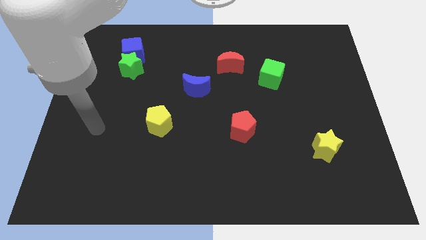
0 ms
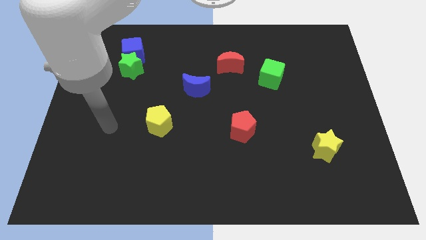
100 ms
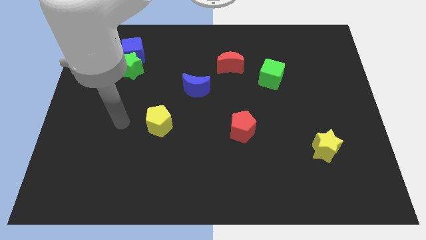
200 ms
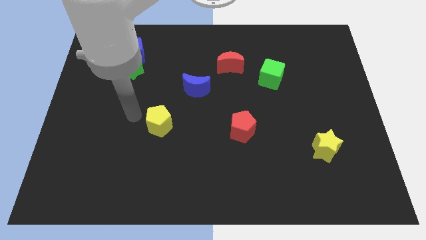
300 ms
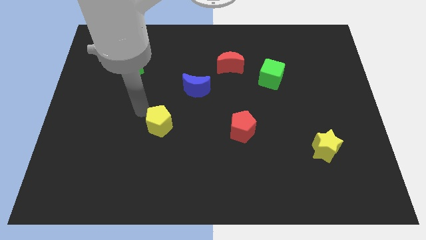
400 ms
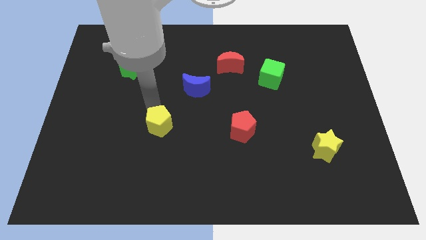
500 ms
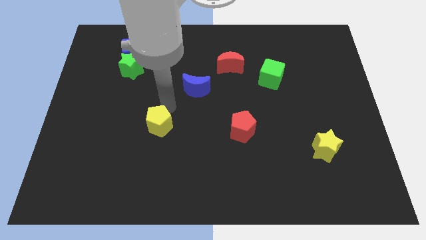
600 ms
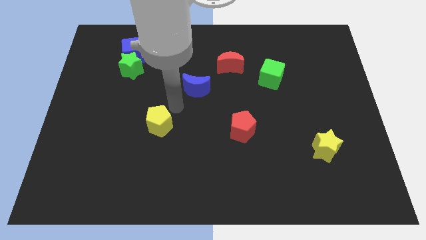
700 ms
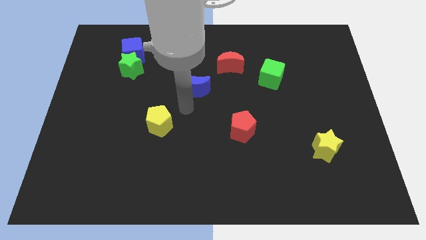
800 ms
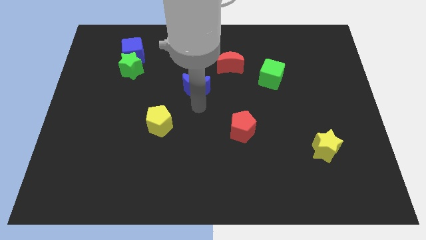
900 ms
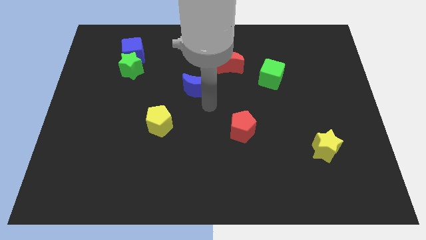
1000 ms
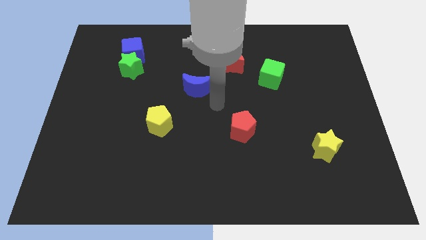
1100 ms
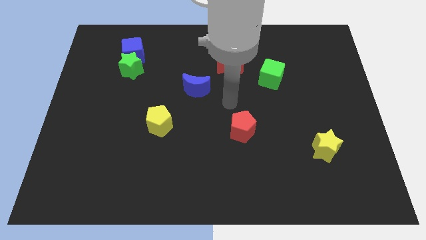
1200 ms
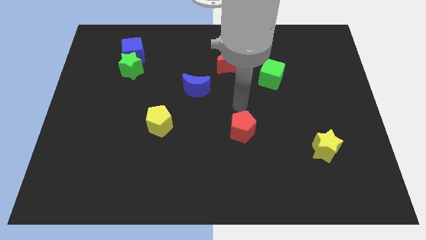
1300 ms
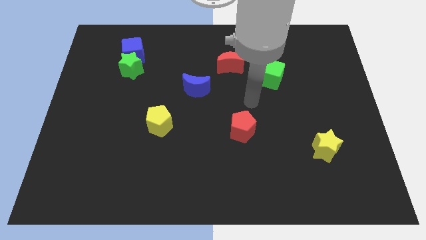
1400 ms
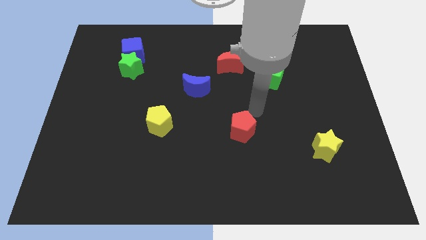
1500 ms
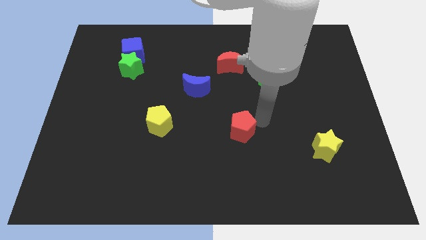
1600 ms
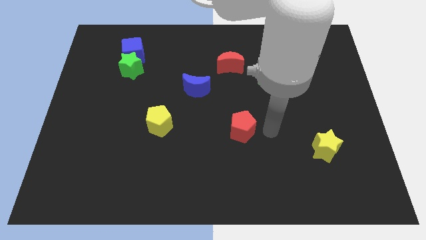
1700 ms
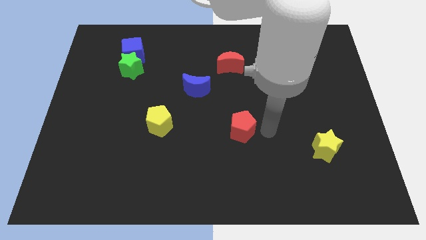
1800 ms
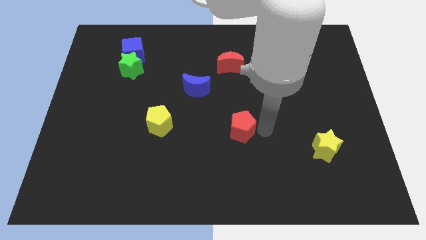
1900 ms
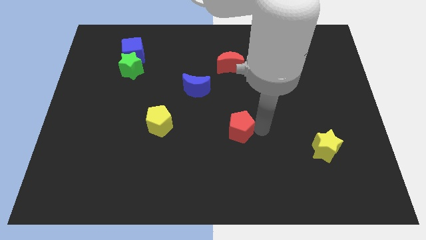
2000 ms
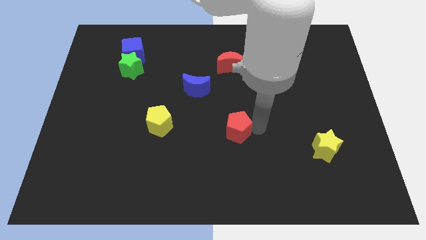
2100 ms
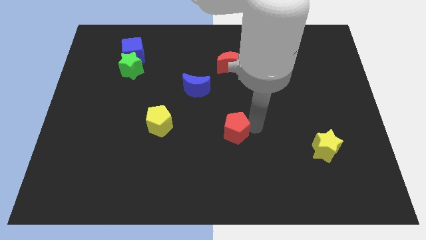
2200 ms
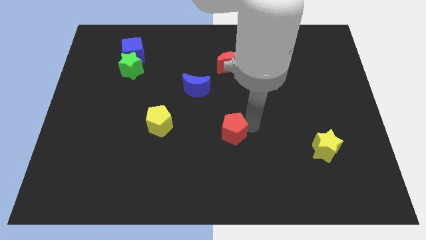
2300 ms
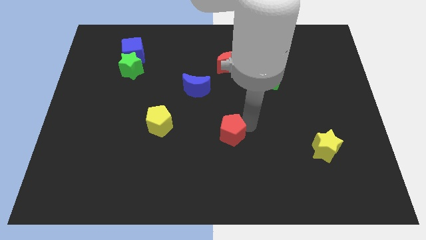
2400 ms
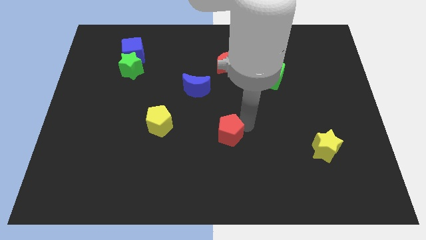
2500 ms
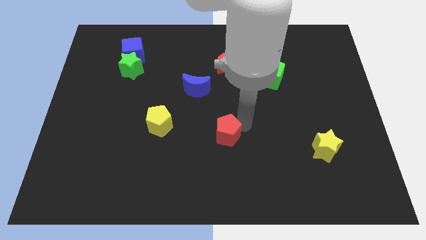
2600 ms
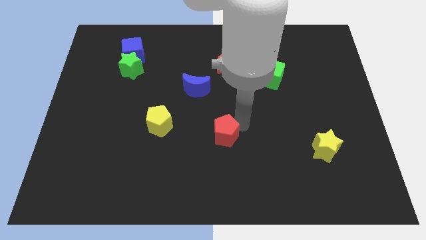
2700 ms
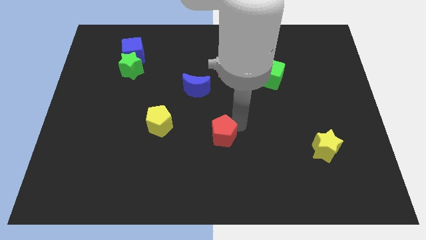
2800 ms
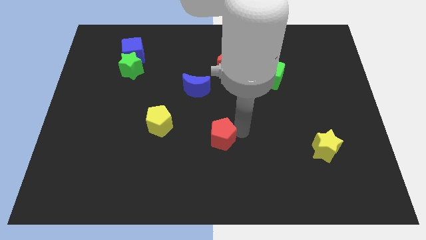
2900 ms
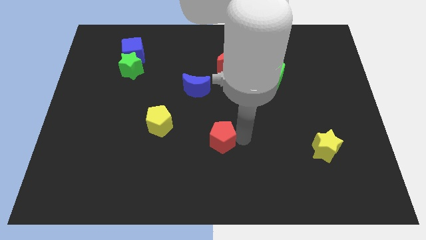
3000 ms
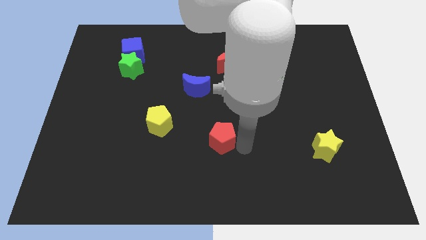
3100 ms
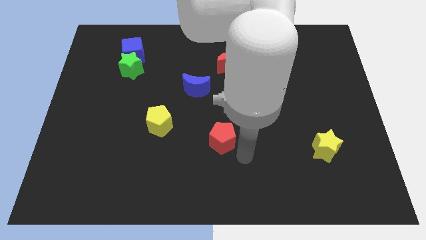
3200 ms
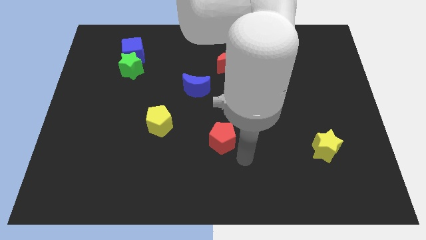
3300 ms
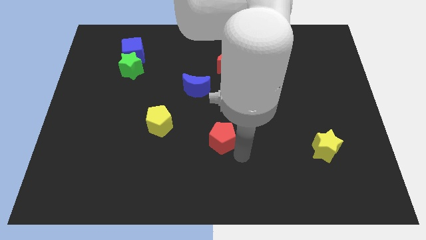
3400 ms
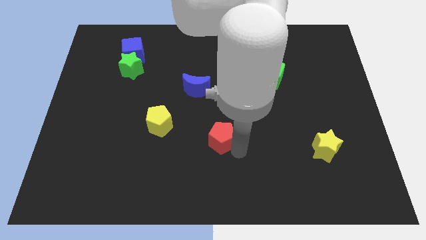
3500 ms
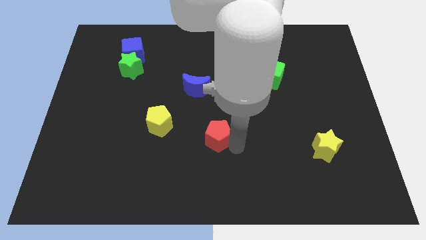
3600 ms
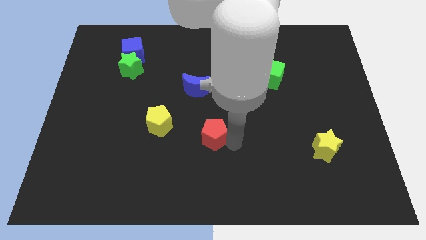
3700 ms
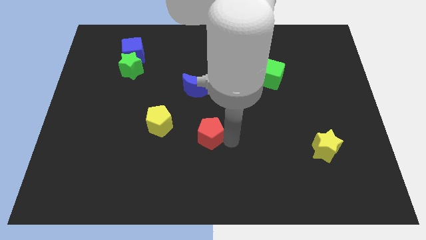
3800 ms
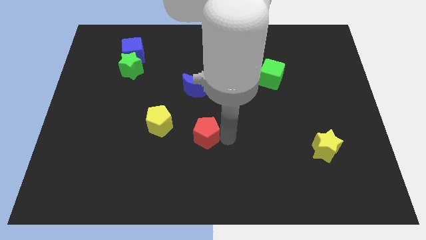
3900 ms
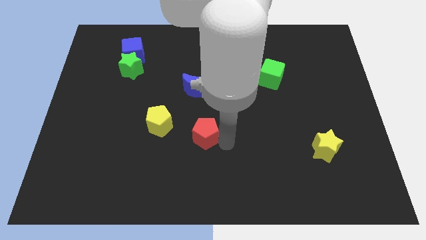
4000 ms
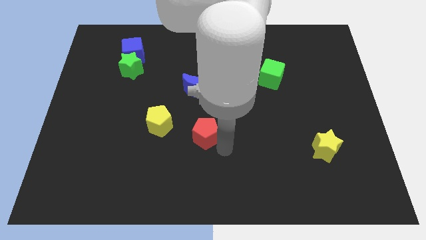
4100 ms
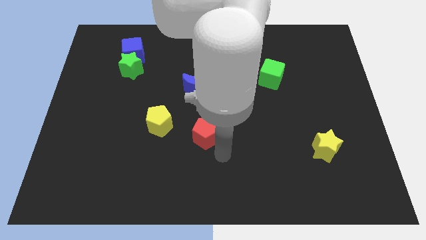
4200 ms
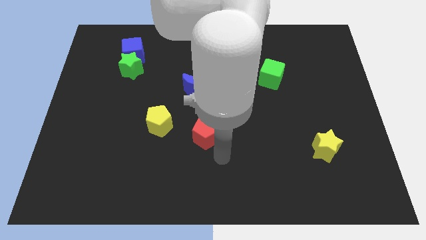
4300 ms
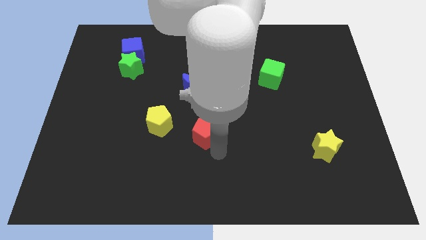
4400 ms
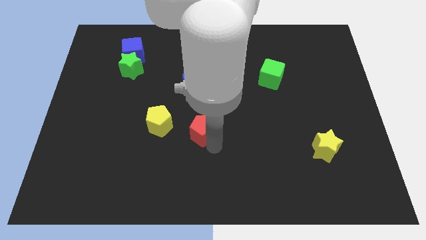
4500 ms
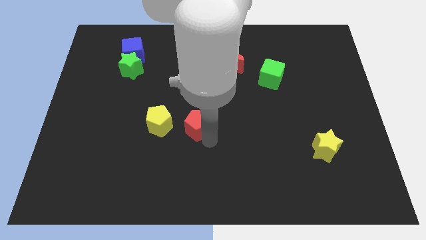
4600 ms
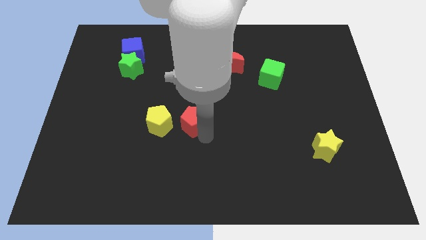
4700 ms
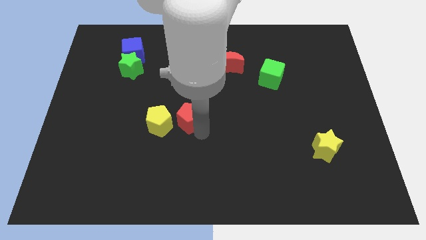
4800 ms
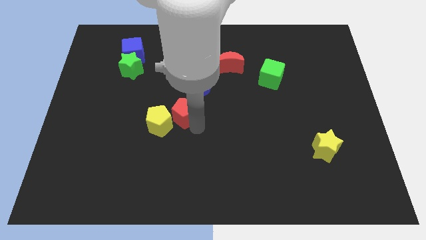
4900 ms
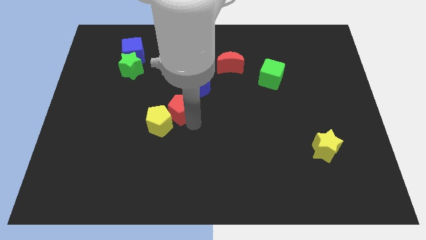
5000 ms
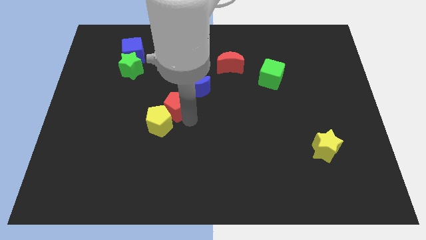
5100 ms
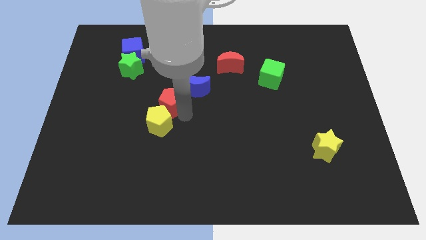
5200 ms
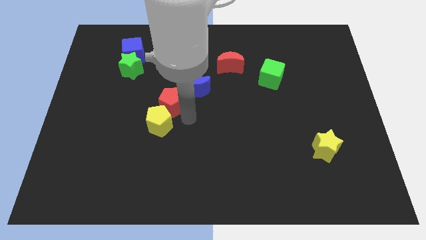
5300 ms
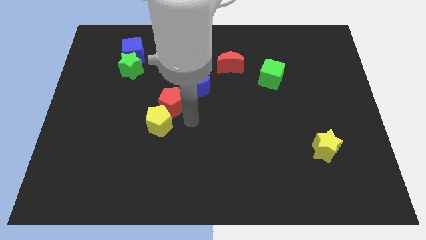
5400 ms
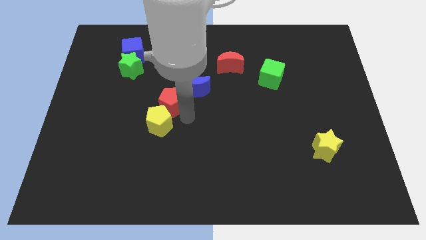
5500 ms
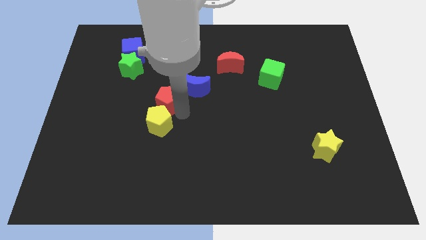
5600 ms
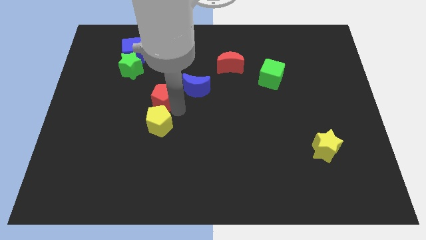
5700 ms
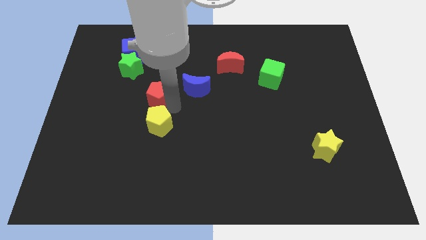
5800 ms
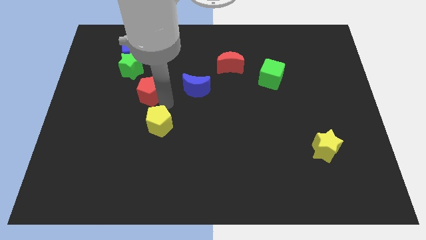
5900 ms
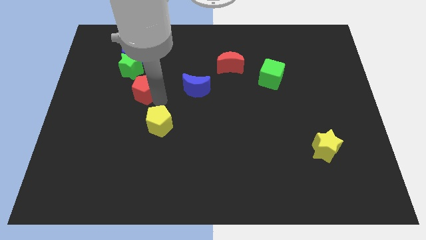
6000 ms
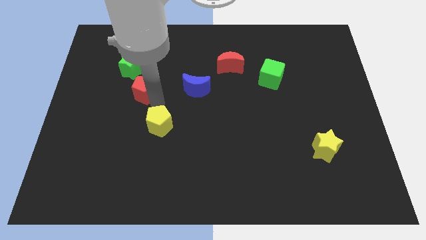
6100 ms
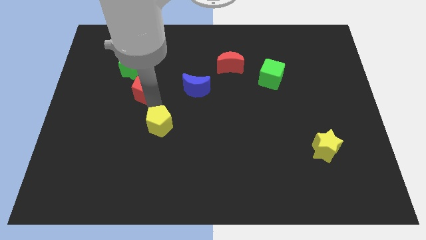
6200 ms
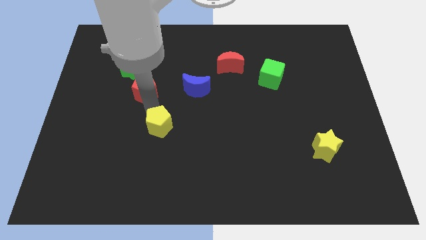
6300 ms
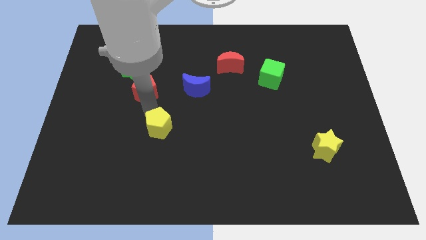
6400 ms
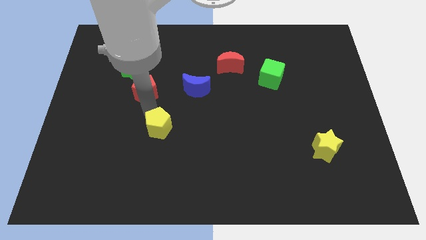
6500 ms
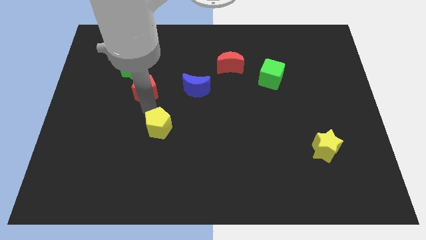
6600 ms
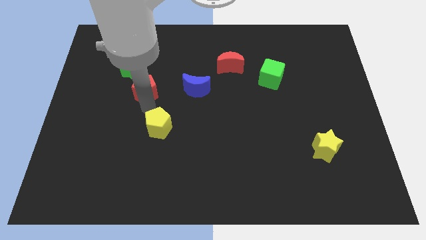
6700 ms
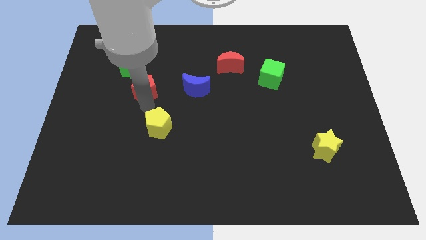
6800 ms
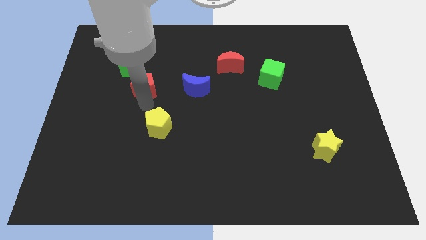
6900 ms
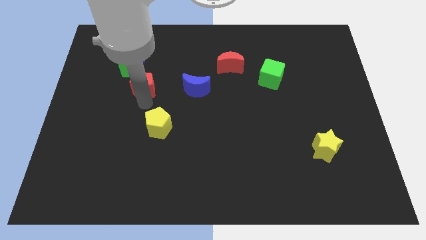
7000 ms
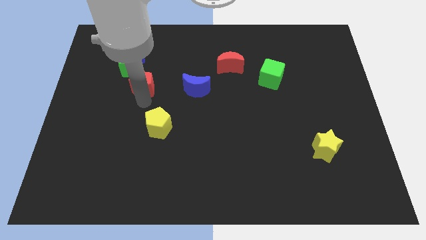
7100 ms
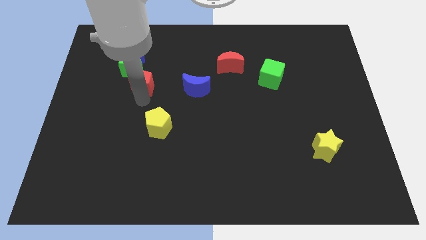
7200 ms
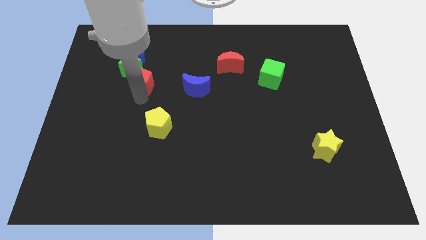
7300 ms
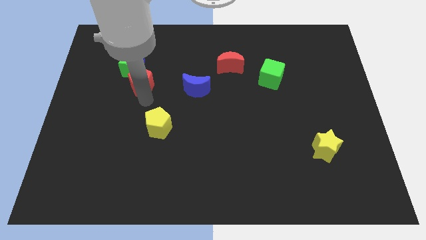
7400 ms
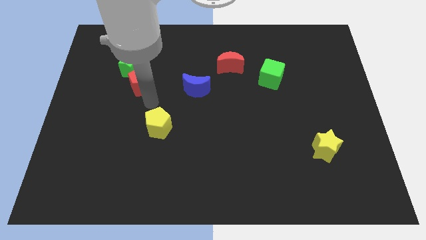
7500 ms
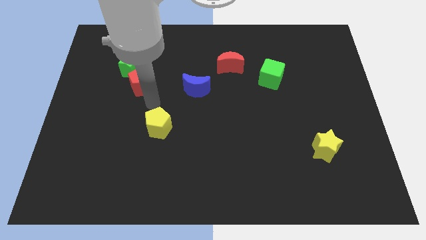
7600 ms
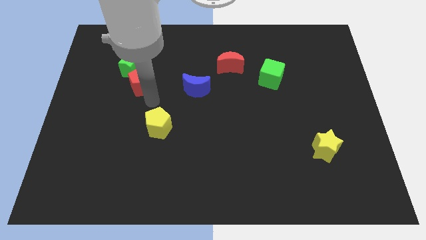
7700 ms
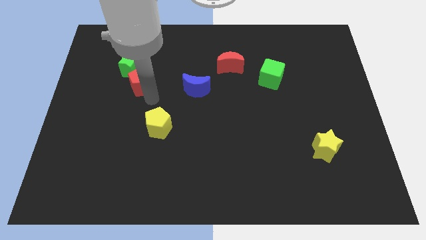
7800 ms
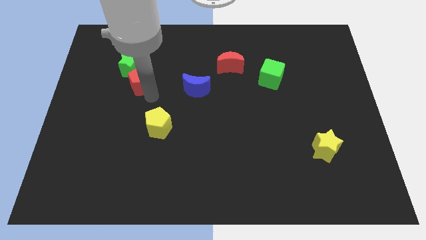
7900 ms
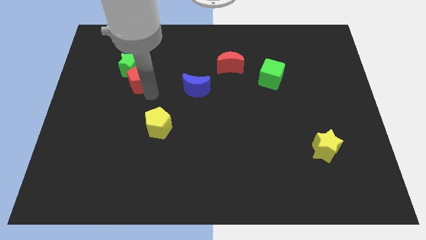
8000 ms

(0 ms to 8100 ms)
put the red pentagon close to the green star
